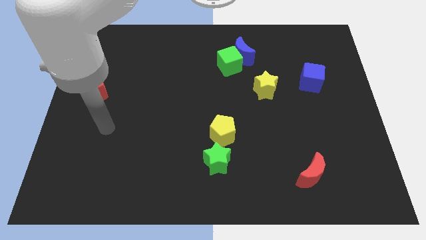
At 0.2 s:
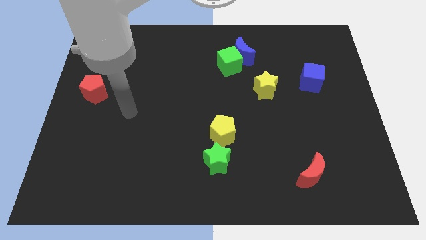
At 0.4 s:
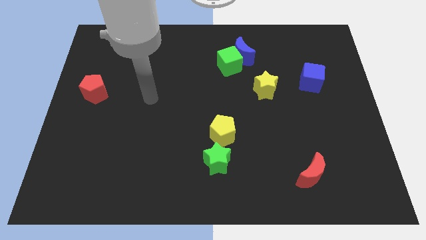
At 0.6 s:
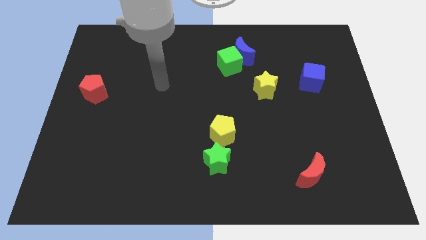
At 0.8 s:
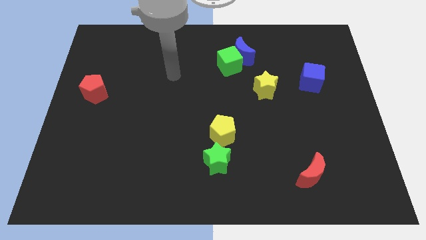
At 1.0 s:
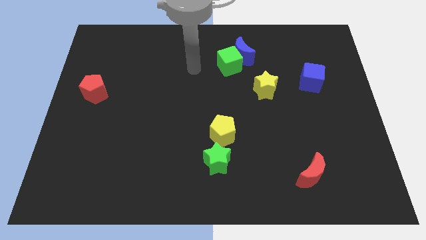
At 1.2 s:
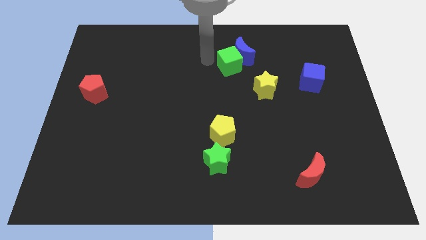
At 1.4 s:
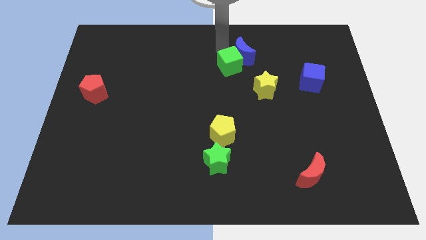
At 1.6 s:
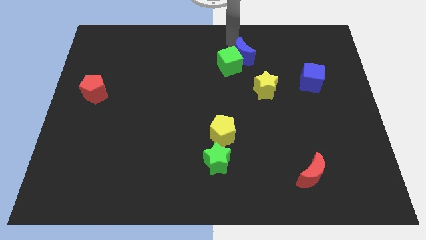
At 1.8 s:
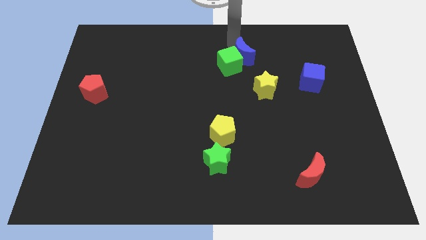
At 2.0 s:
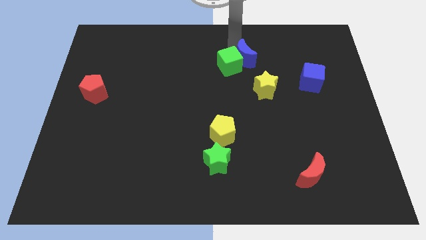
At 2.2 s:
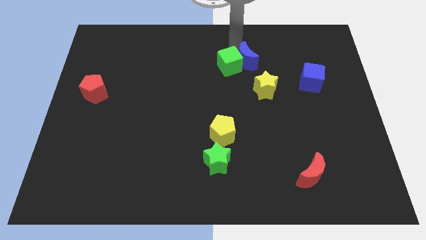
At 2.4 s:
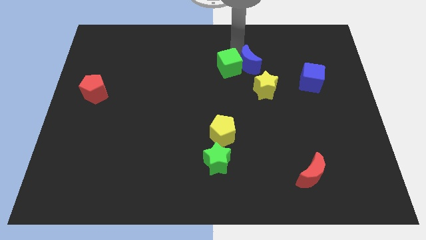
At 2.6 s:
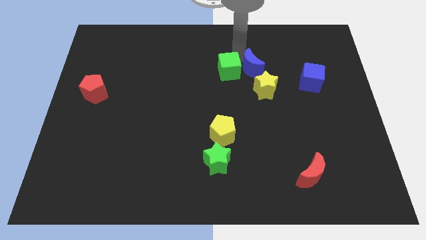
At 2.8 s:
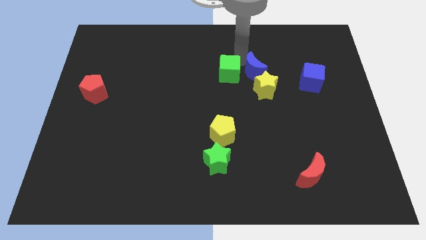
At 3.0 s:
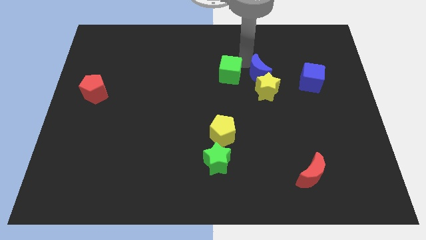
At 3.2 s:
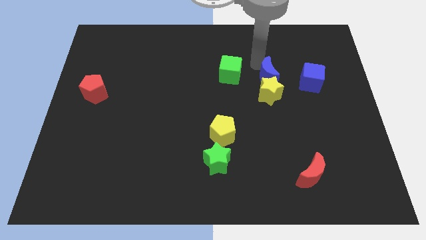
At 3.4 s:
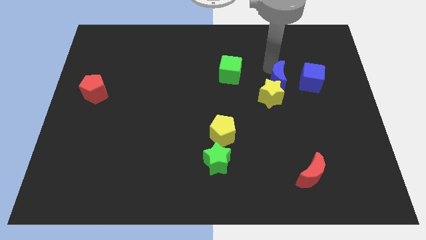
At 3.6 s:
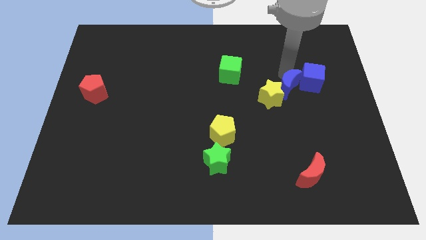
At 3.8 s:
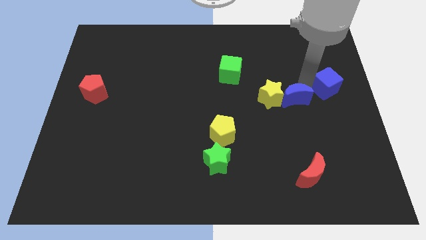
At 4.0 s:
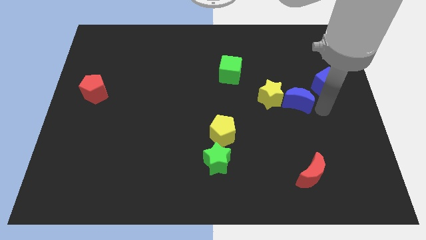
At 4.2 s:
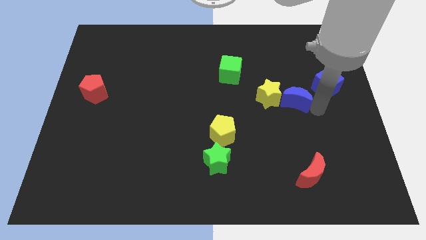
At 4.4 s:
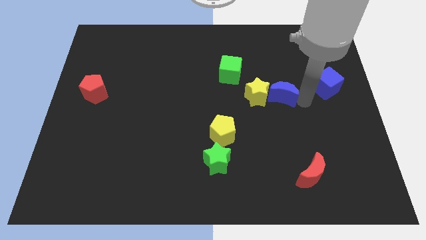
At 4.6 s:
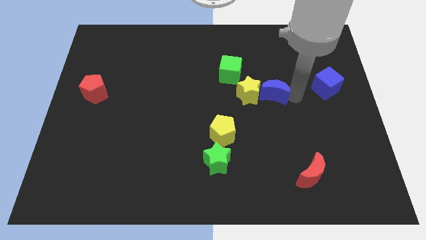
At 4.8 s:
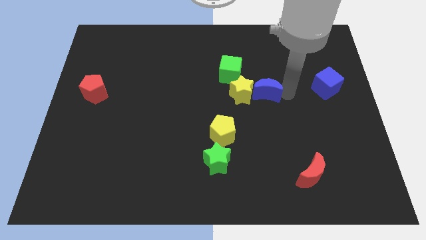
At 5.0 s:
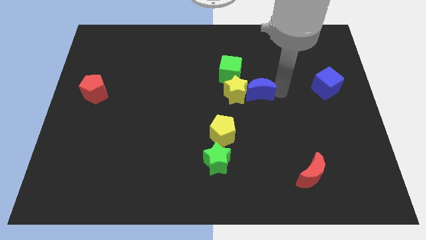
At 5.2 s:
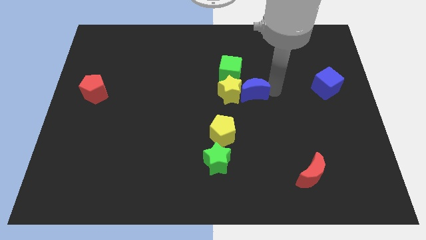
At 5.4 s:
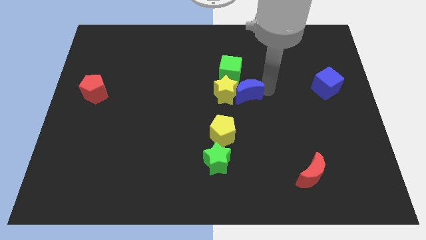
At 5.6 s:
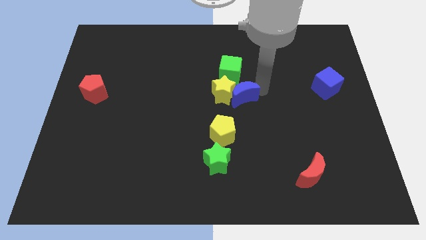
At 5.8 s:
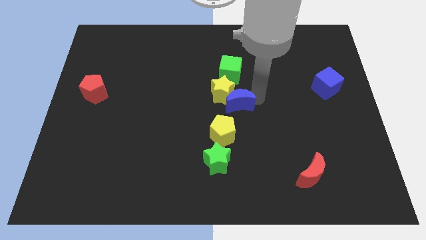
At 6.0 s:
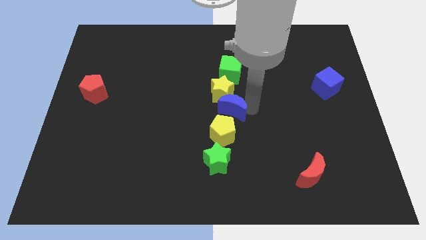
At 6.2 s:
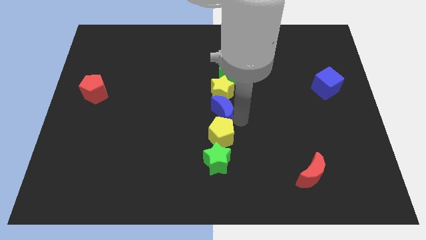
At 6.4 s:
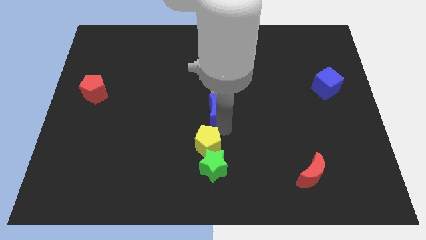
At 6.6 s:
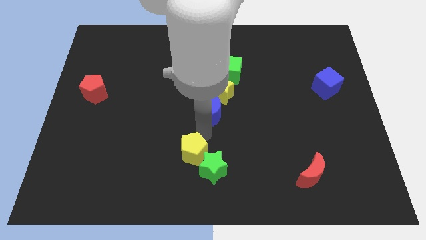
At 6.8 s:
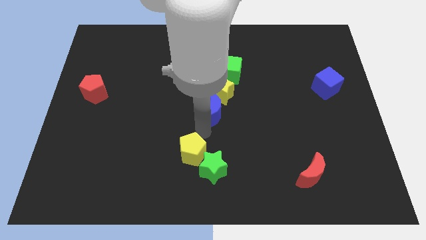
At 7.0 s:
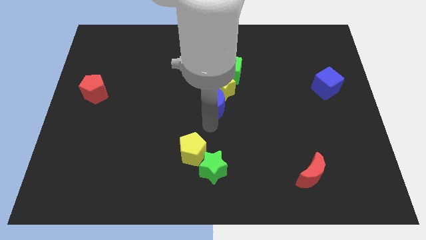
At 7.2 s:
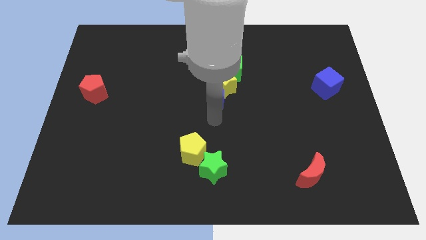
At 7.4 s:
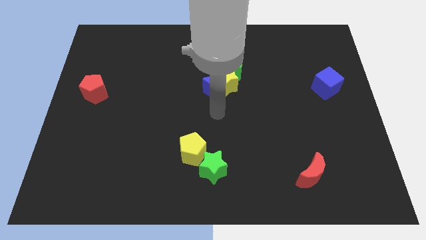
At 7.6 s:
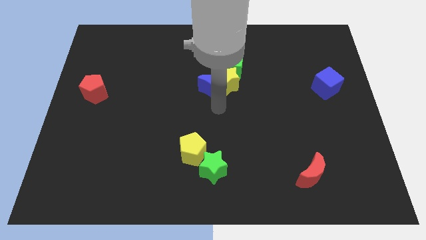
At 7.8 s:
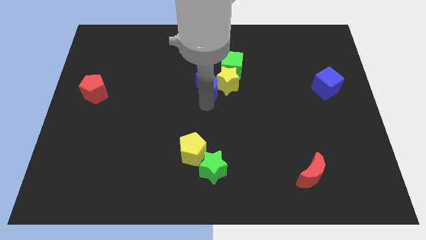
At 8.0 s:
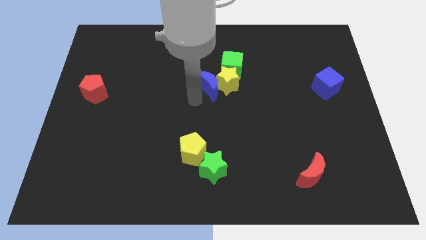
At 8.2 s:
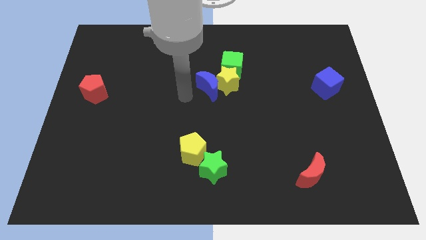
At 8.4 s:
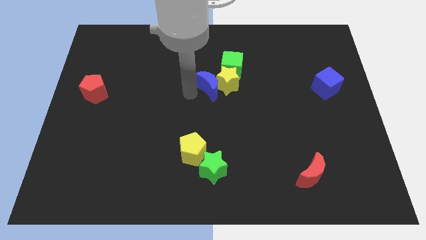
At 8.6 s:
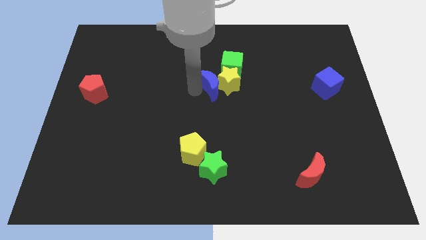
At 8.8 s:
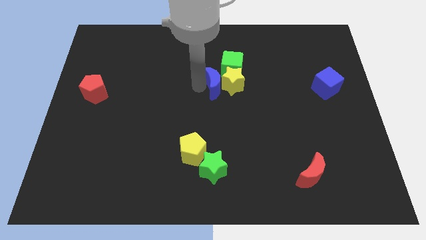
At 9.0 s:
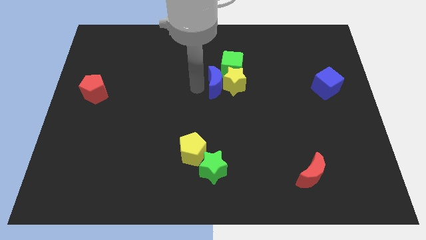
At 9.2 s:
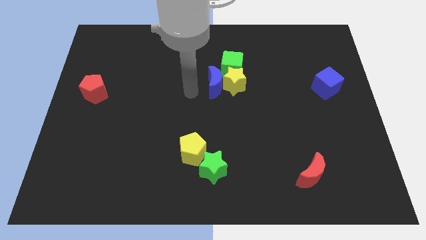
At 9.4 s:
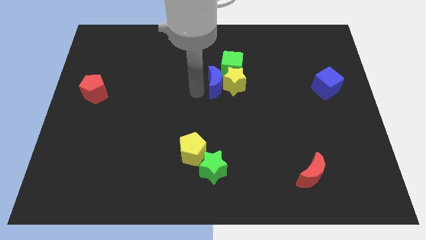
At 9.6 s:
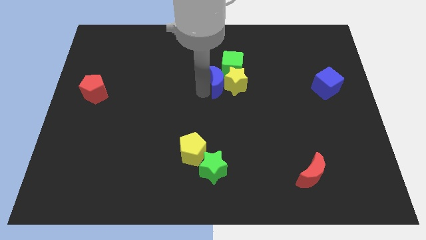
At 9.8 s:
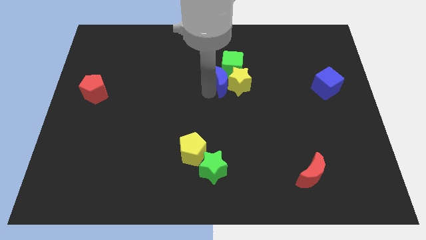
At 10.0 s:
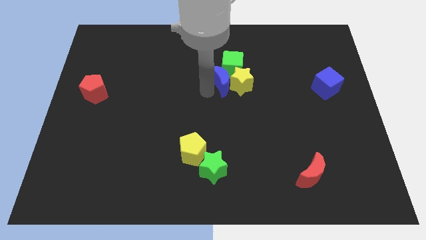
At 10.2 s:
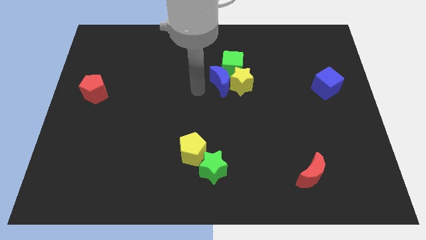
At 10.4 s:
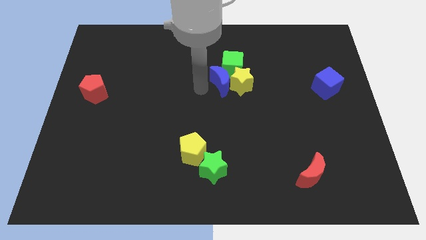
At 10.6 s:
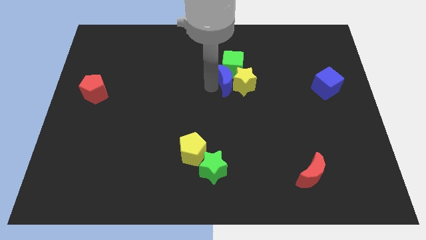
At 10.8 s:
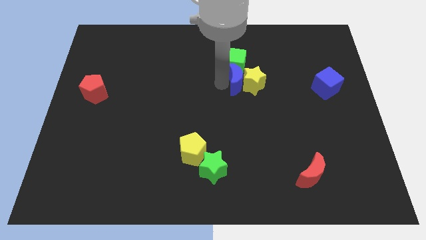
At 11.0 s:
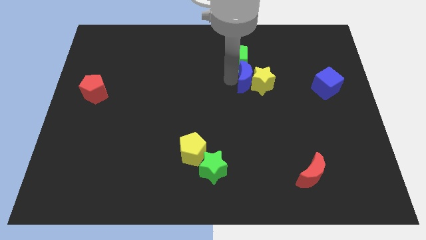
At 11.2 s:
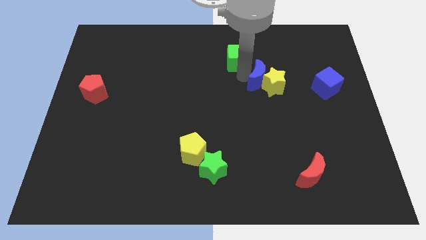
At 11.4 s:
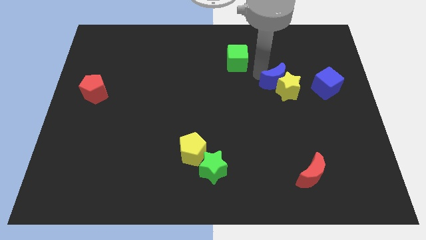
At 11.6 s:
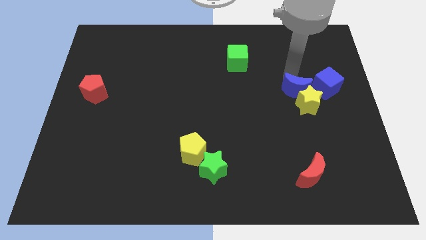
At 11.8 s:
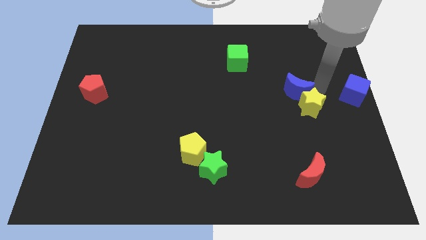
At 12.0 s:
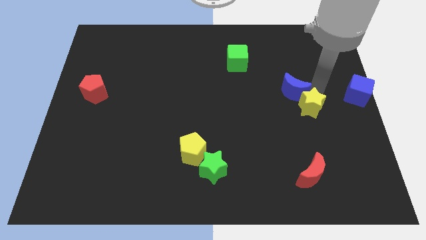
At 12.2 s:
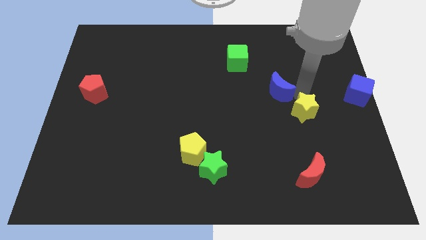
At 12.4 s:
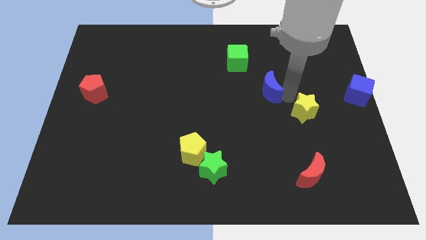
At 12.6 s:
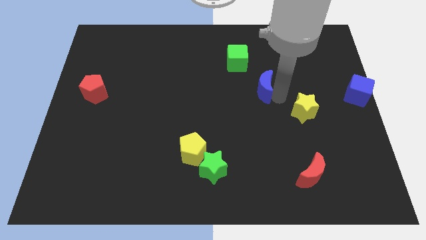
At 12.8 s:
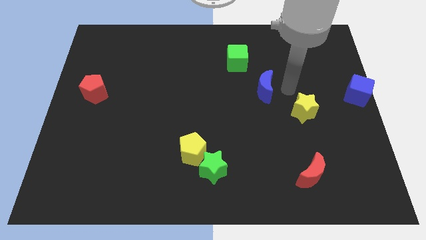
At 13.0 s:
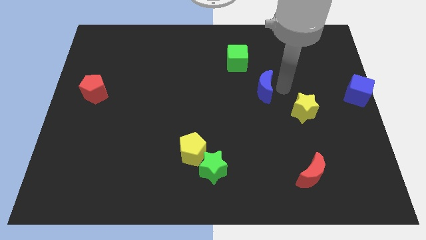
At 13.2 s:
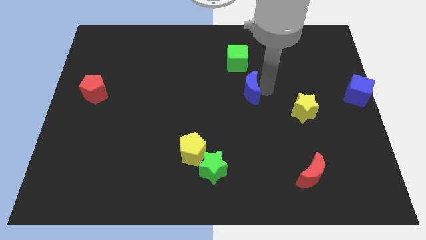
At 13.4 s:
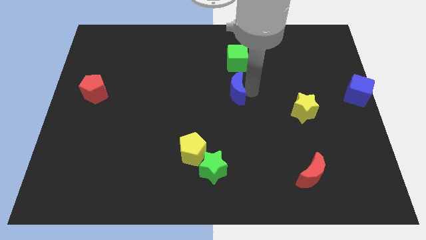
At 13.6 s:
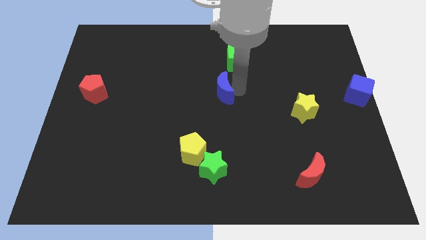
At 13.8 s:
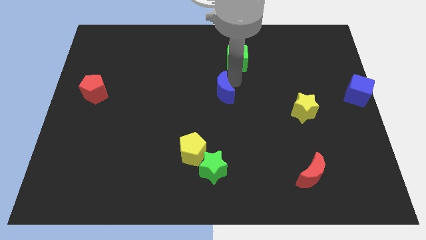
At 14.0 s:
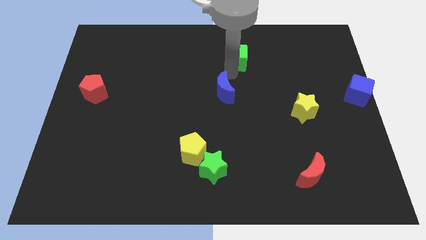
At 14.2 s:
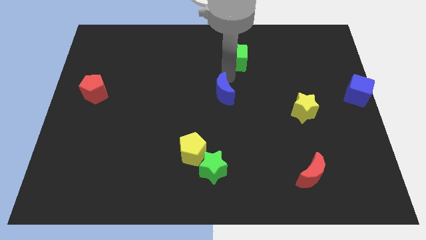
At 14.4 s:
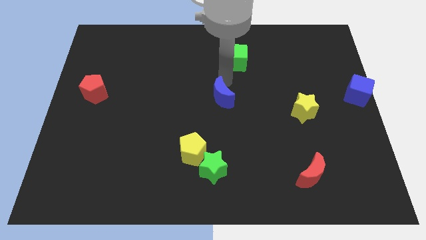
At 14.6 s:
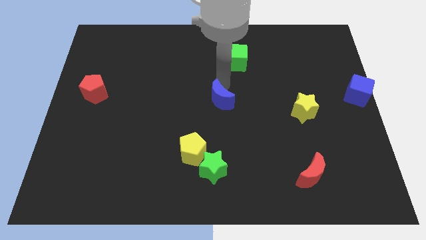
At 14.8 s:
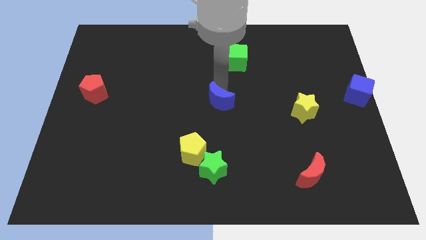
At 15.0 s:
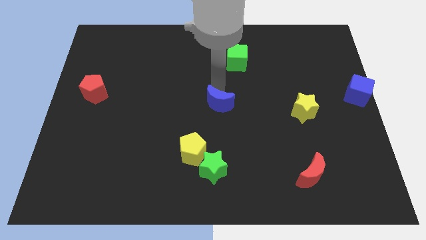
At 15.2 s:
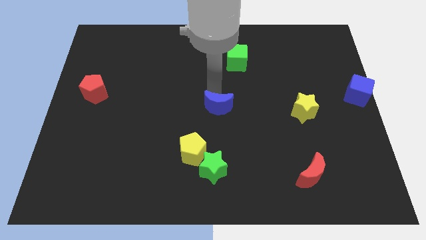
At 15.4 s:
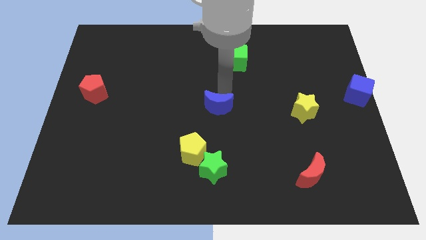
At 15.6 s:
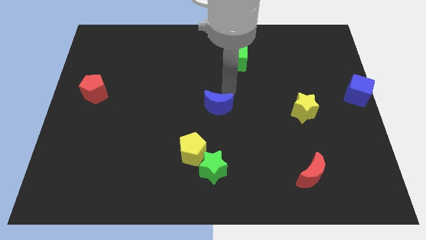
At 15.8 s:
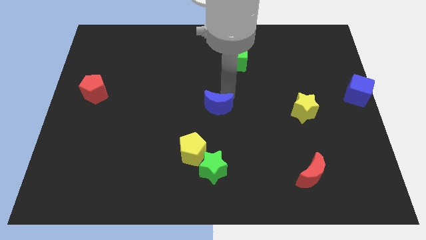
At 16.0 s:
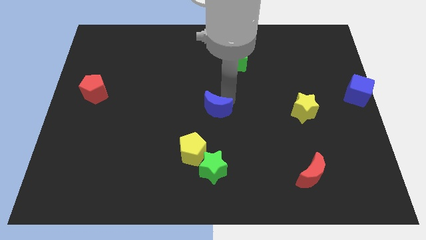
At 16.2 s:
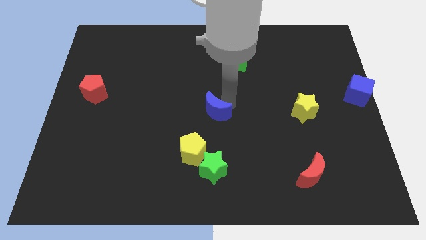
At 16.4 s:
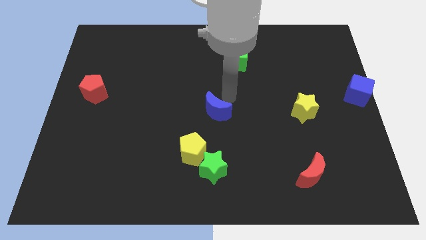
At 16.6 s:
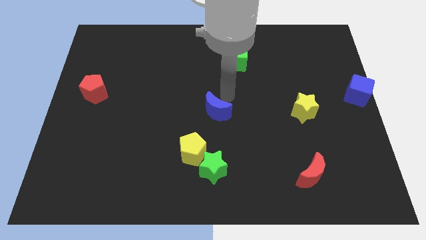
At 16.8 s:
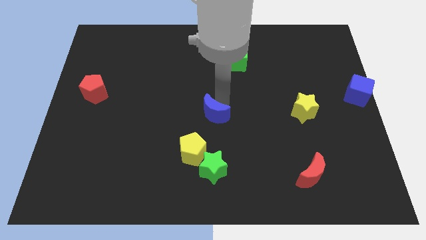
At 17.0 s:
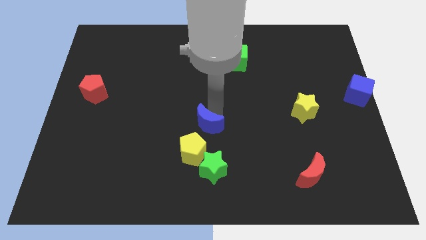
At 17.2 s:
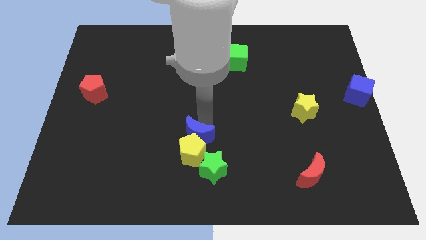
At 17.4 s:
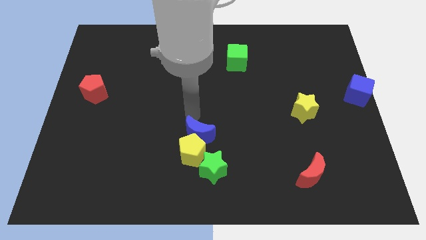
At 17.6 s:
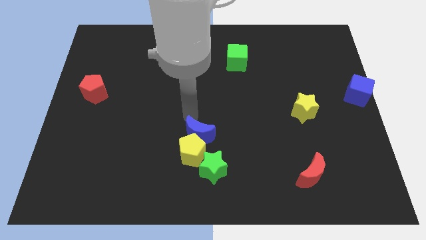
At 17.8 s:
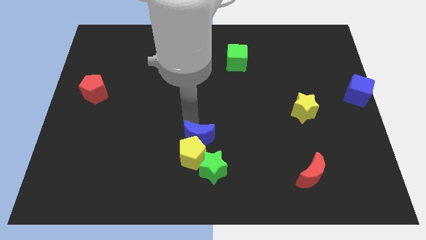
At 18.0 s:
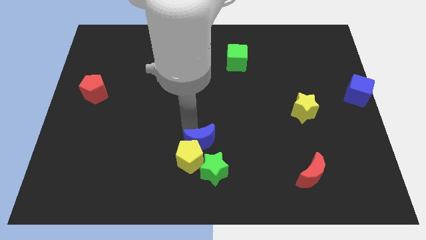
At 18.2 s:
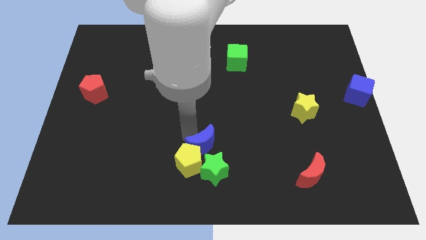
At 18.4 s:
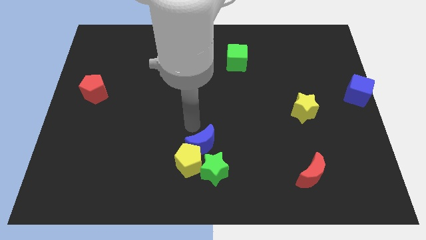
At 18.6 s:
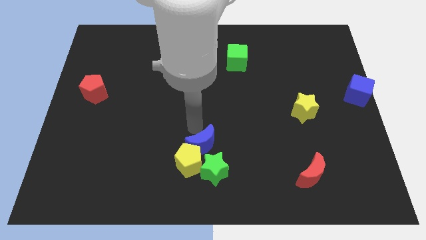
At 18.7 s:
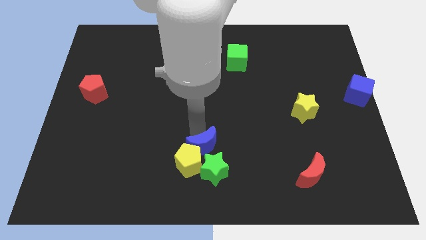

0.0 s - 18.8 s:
slide the blue moon close to the green star
